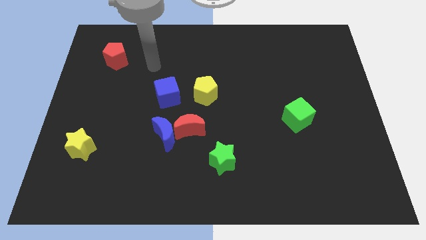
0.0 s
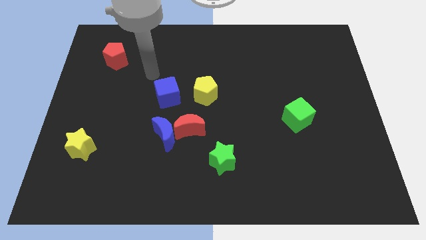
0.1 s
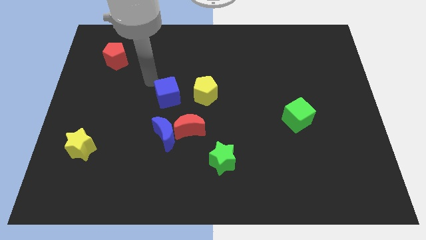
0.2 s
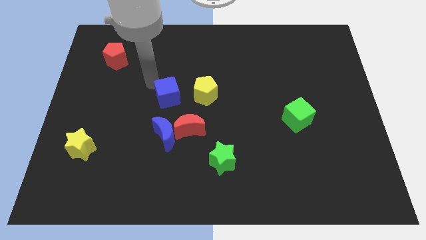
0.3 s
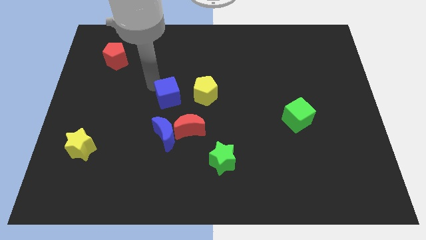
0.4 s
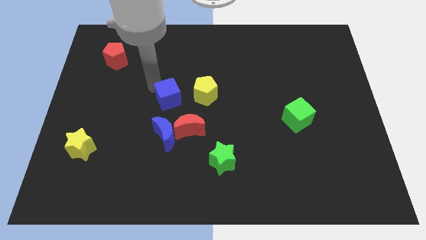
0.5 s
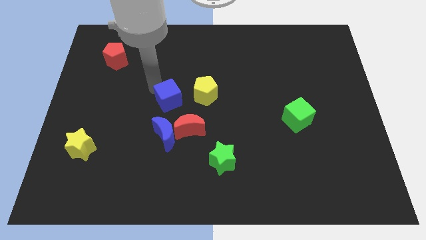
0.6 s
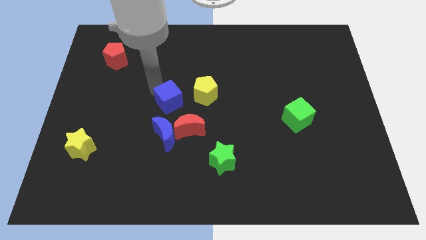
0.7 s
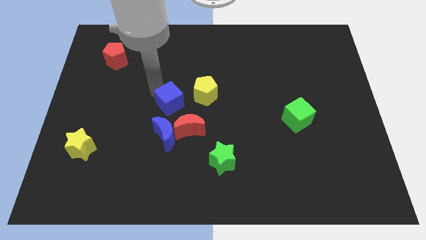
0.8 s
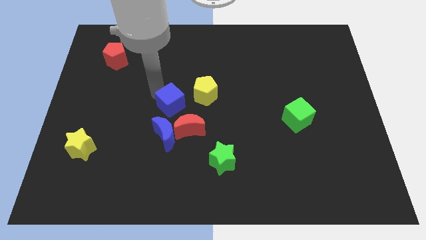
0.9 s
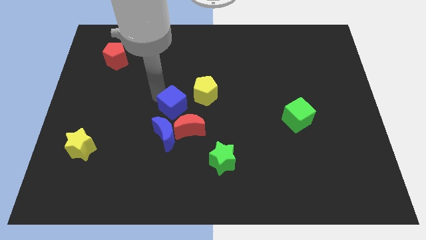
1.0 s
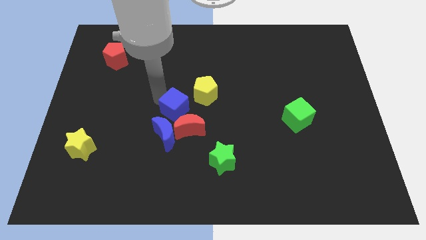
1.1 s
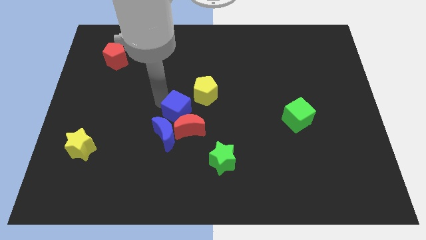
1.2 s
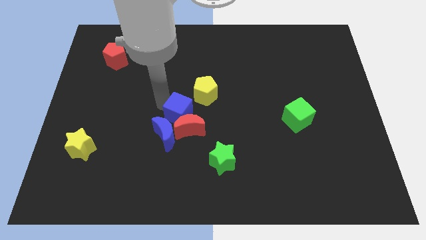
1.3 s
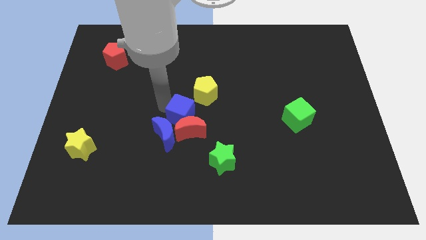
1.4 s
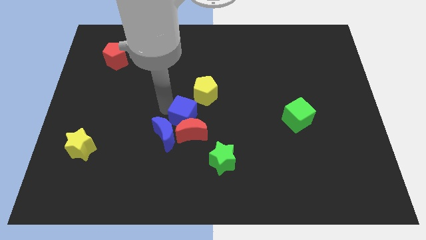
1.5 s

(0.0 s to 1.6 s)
move the blue cube somewhat diagonally down and to the right

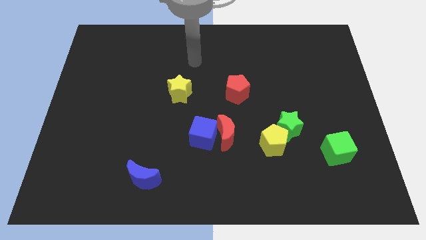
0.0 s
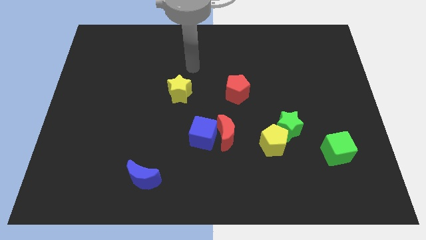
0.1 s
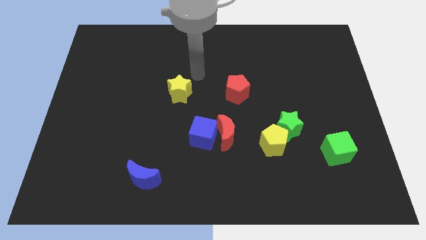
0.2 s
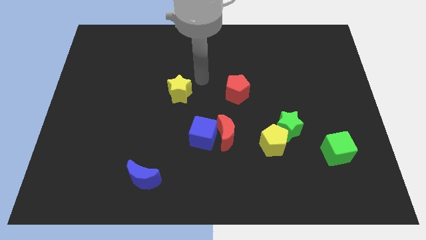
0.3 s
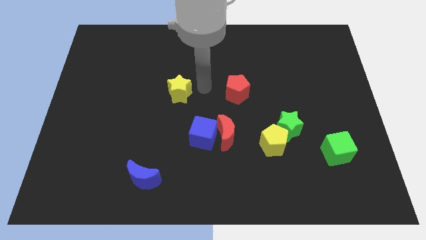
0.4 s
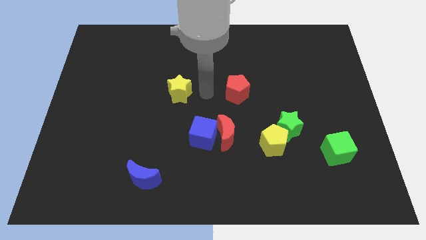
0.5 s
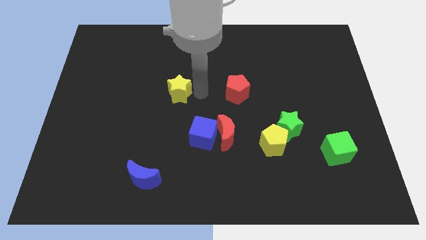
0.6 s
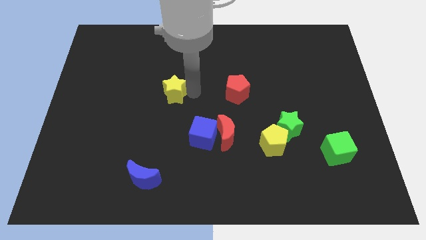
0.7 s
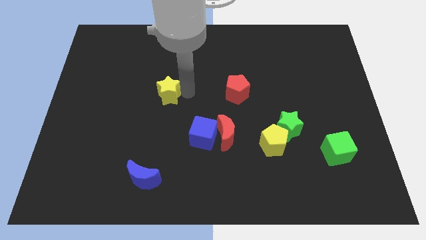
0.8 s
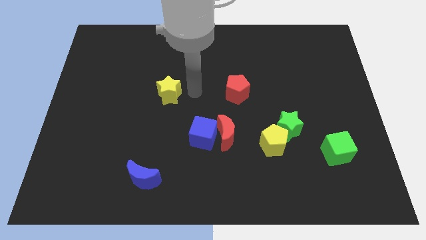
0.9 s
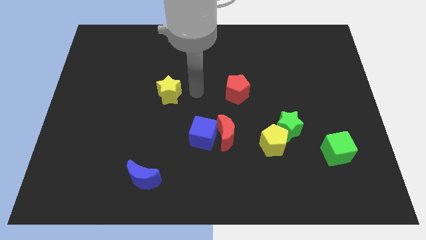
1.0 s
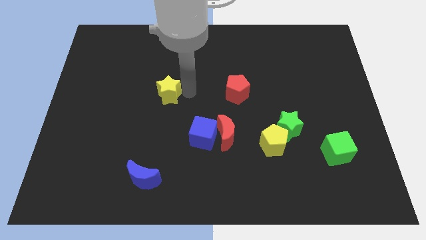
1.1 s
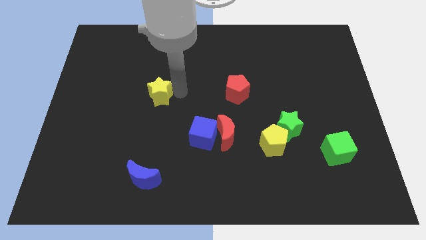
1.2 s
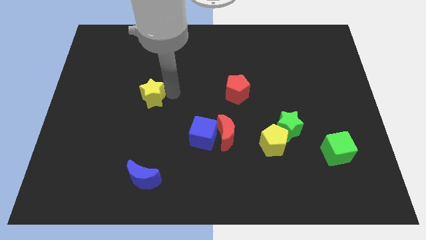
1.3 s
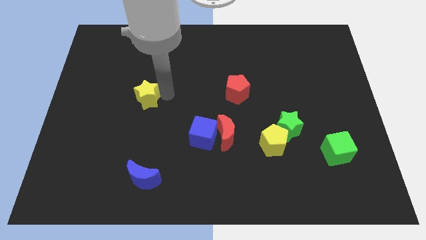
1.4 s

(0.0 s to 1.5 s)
slightly slide the yellow star to the left

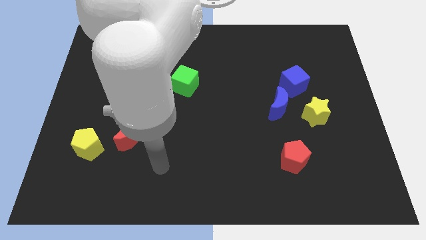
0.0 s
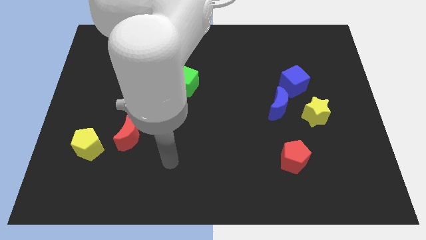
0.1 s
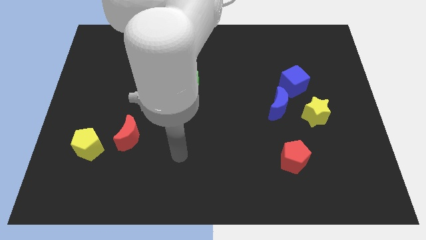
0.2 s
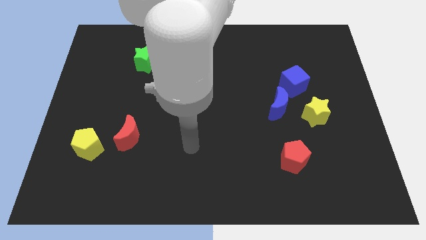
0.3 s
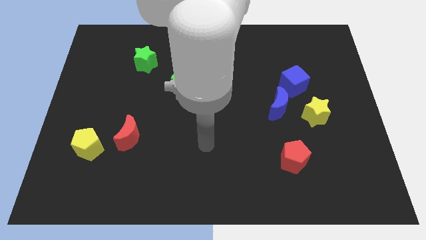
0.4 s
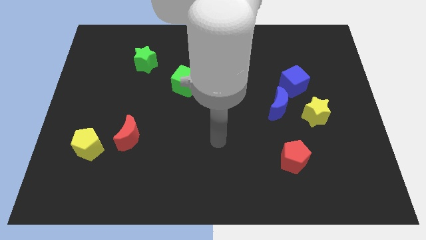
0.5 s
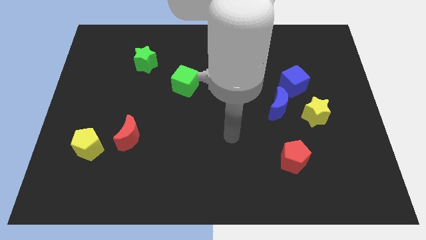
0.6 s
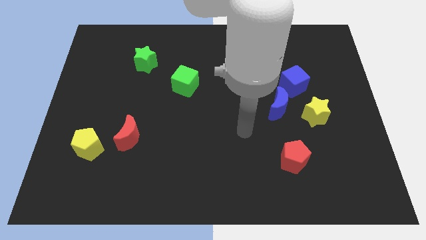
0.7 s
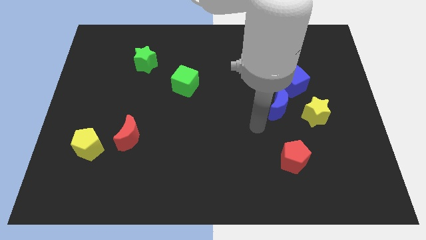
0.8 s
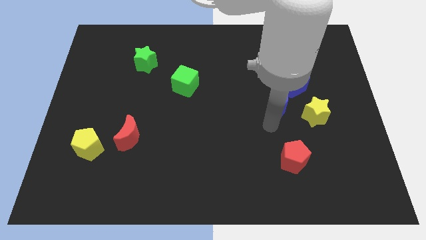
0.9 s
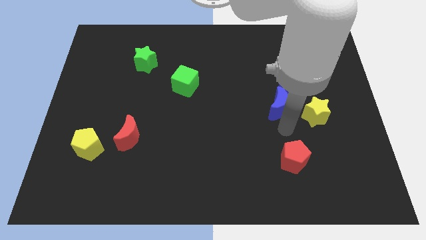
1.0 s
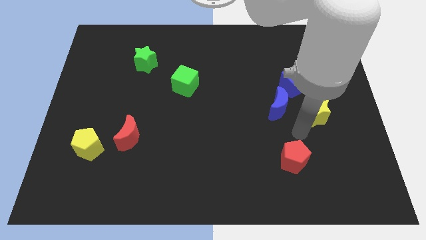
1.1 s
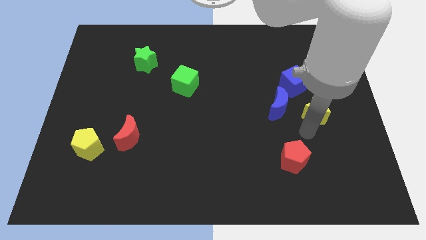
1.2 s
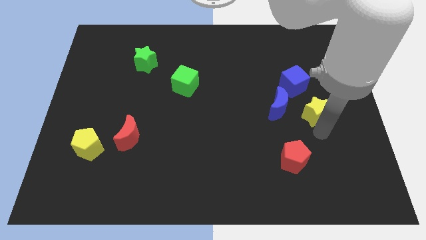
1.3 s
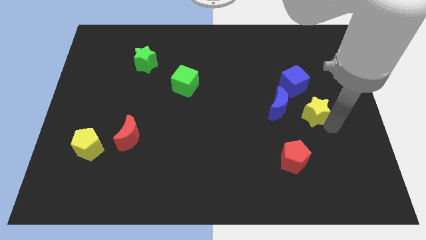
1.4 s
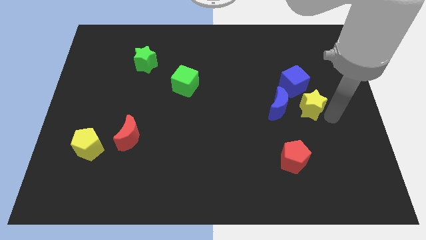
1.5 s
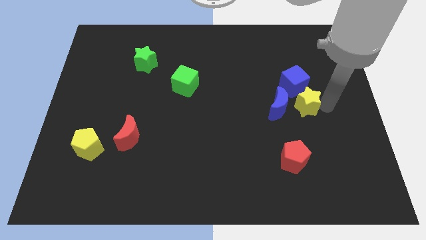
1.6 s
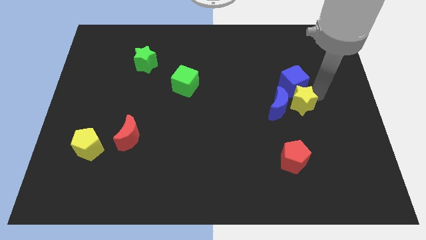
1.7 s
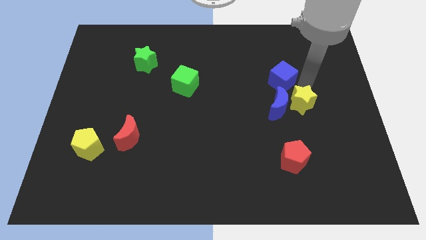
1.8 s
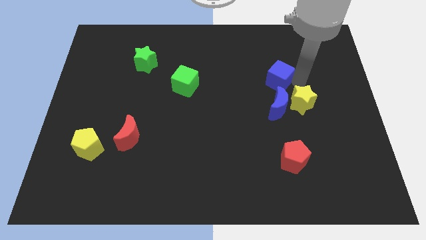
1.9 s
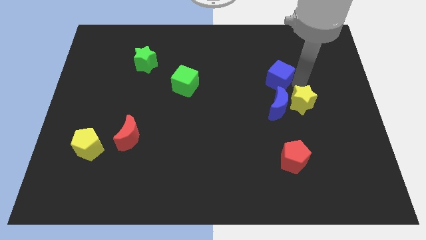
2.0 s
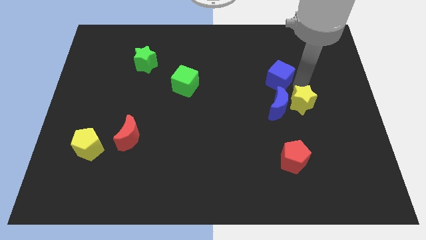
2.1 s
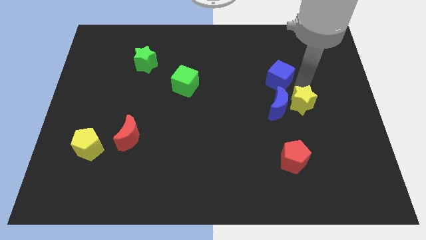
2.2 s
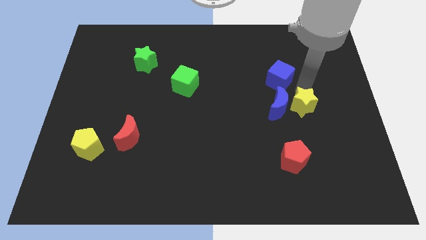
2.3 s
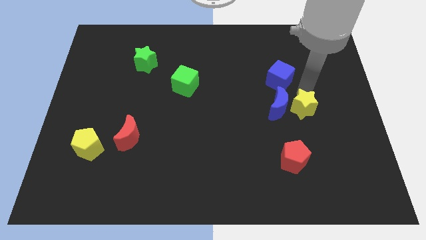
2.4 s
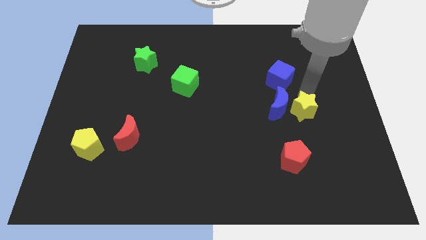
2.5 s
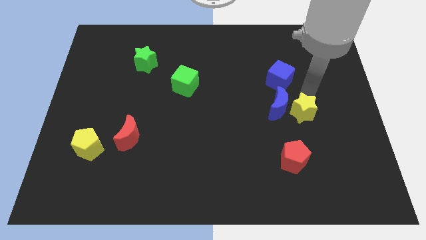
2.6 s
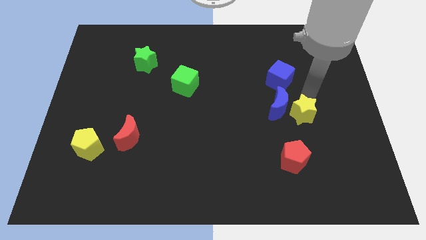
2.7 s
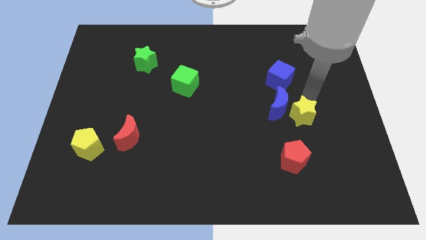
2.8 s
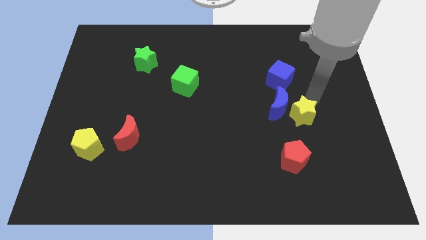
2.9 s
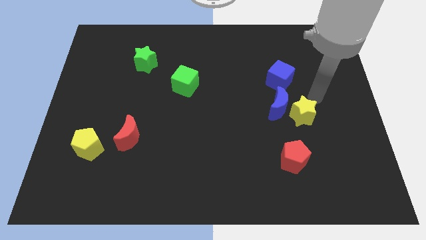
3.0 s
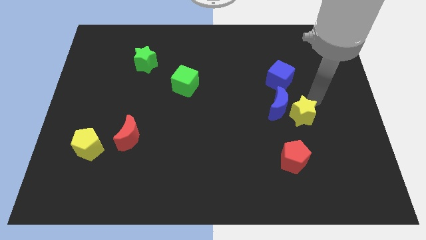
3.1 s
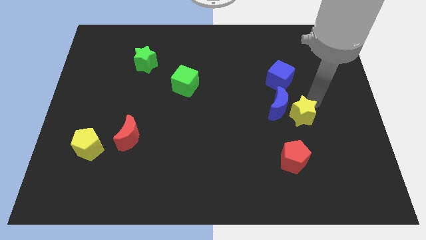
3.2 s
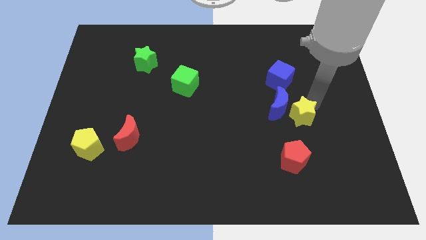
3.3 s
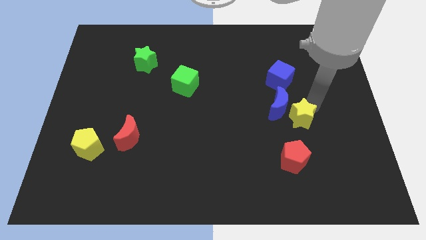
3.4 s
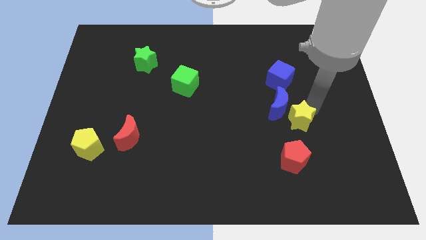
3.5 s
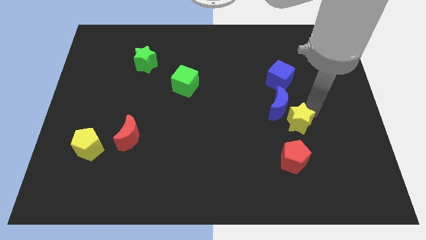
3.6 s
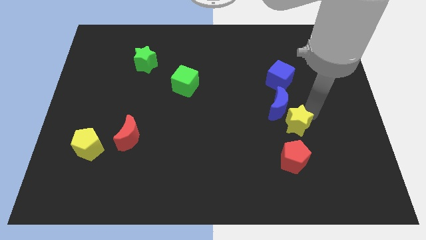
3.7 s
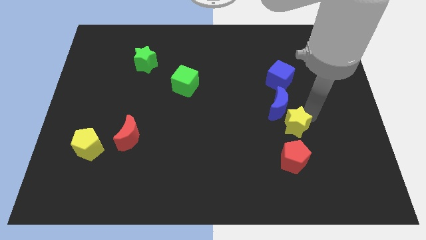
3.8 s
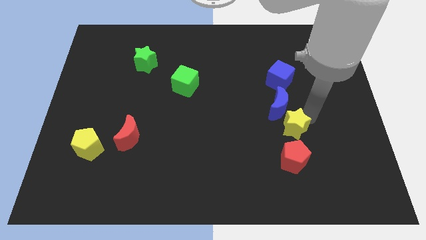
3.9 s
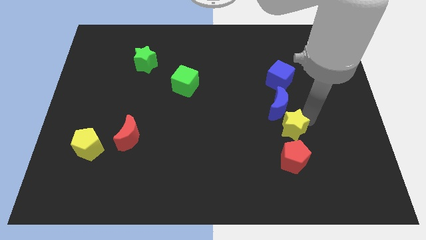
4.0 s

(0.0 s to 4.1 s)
move the yellow star a bit diagonally down and to the left

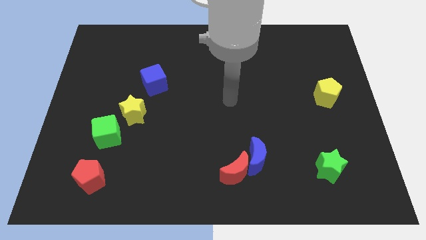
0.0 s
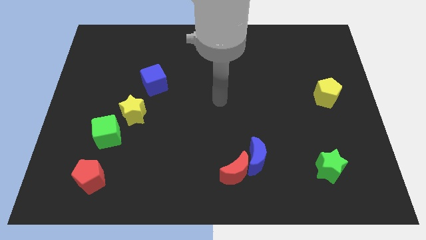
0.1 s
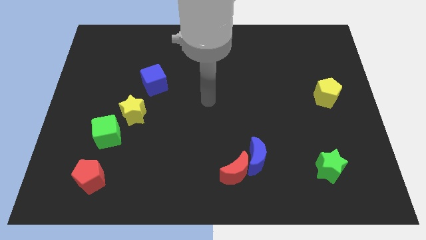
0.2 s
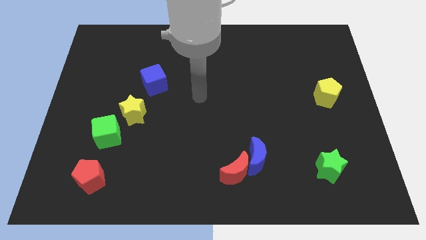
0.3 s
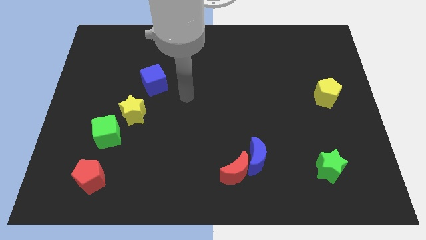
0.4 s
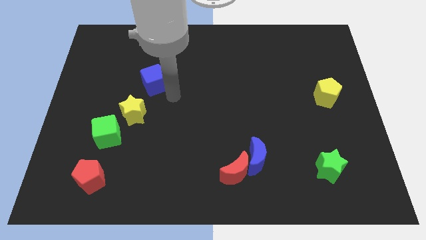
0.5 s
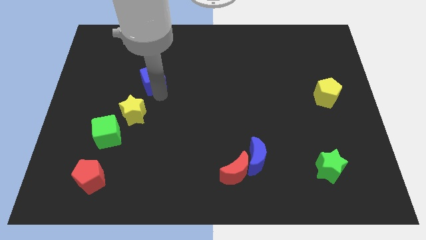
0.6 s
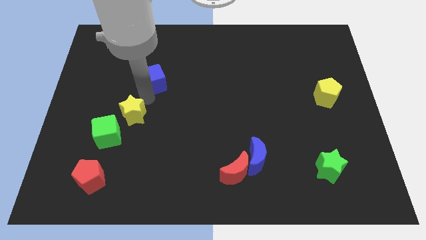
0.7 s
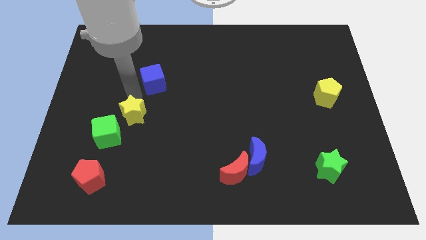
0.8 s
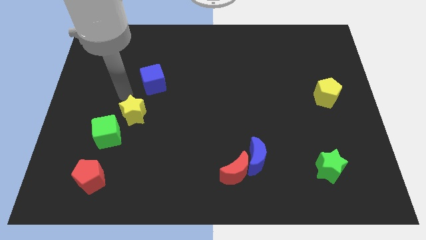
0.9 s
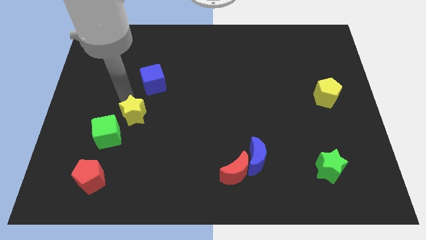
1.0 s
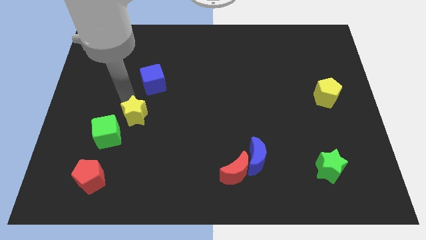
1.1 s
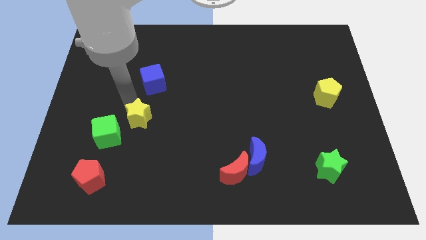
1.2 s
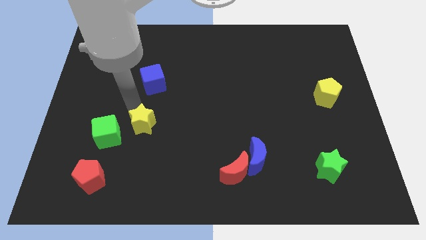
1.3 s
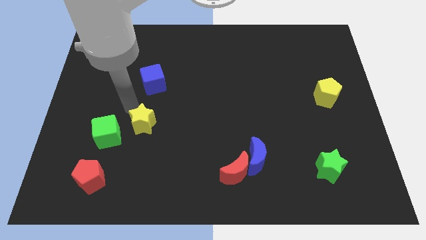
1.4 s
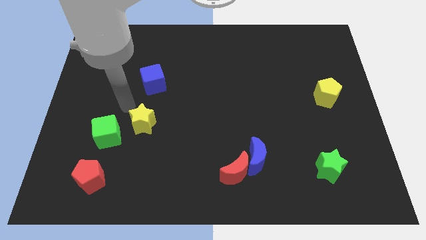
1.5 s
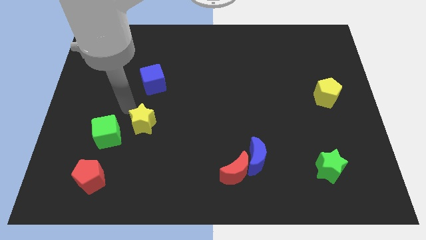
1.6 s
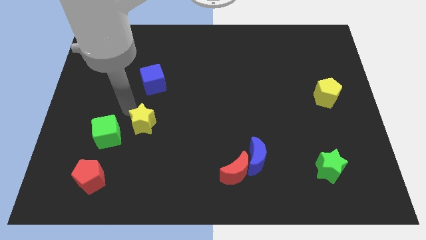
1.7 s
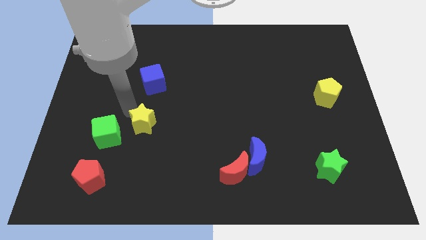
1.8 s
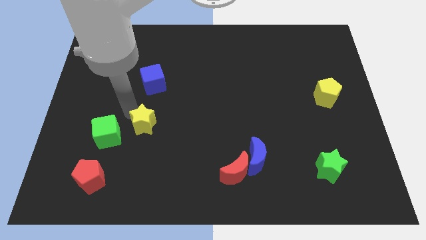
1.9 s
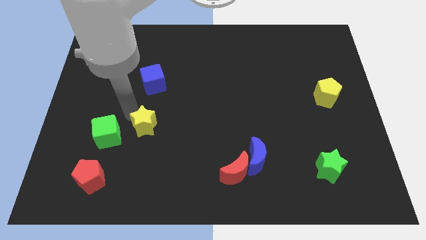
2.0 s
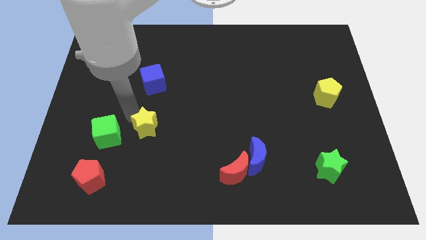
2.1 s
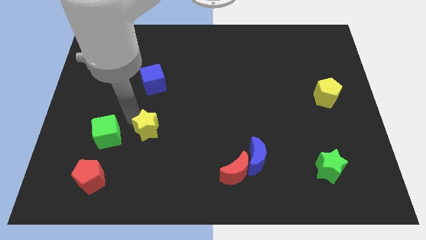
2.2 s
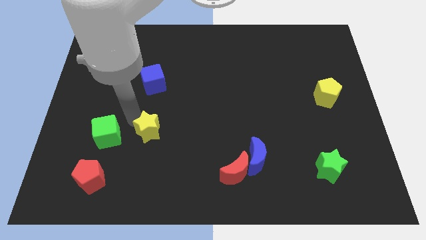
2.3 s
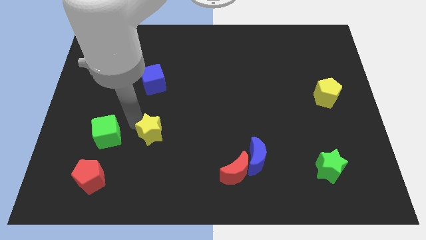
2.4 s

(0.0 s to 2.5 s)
slightly push the yellow star downwards and to the right
